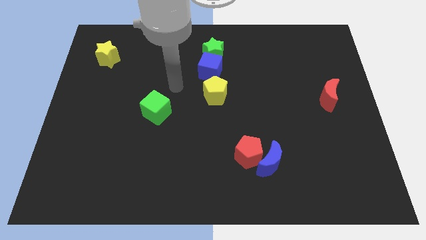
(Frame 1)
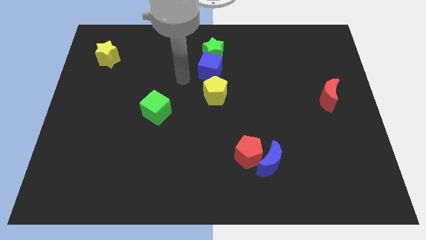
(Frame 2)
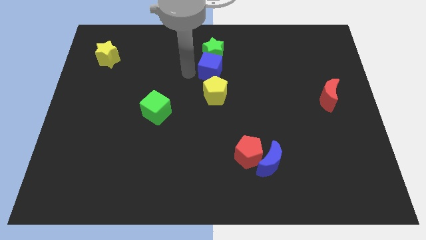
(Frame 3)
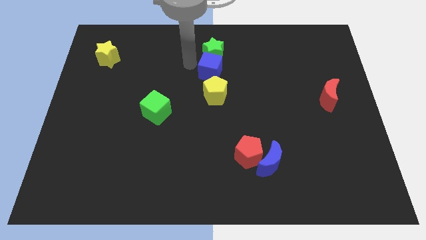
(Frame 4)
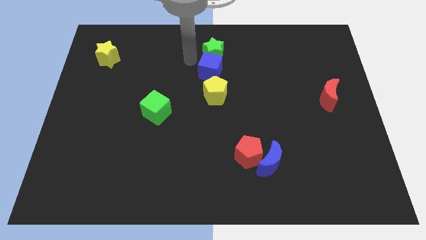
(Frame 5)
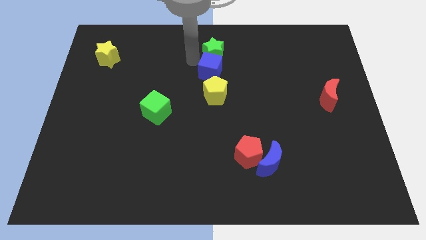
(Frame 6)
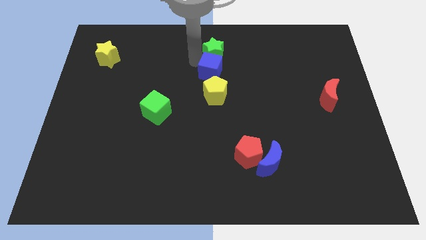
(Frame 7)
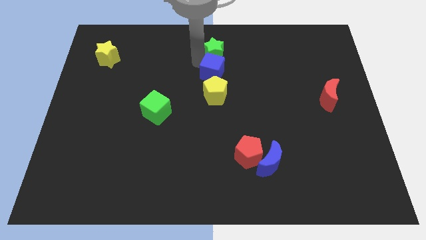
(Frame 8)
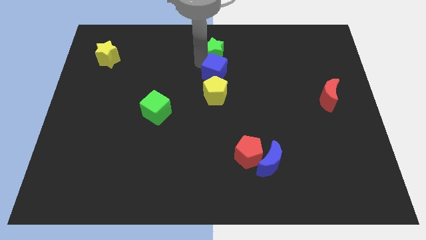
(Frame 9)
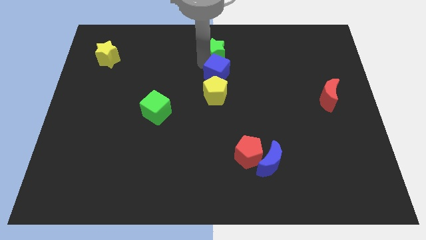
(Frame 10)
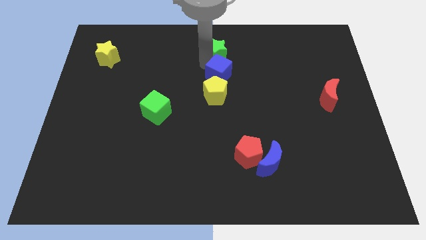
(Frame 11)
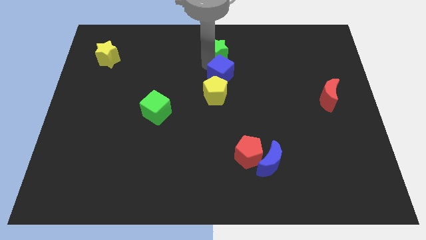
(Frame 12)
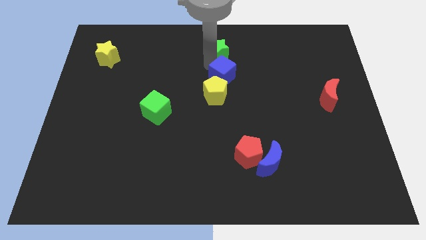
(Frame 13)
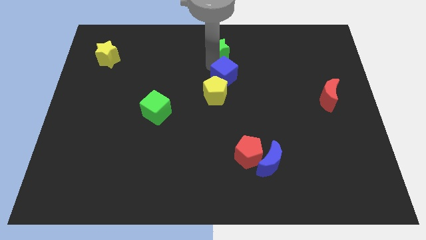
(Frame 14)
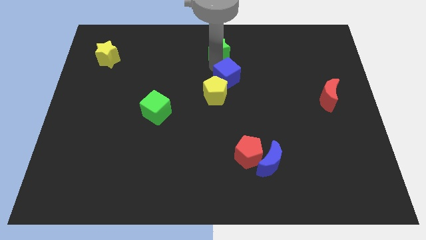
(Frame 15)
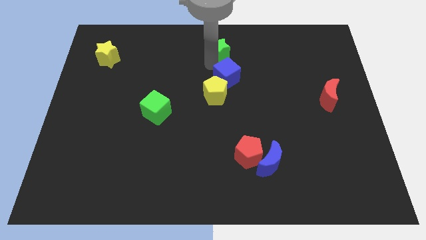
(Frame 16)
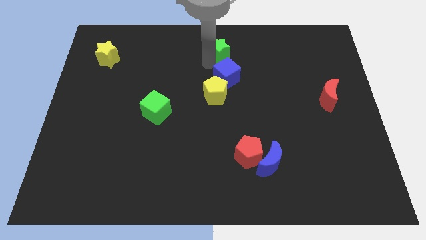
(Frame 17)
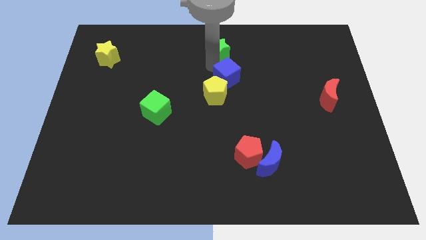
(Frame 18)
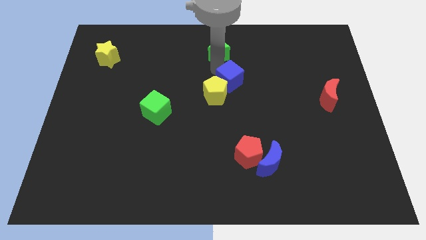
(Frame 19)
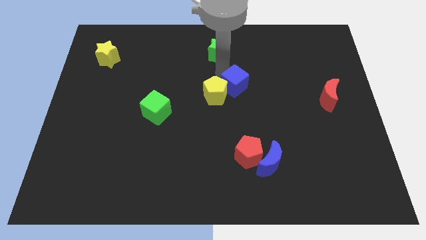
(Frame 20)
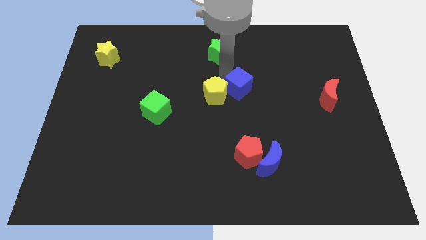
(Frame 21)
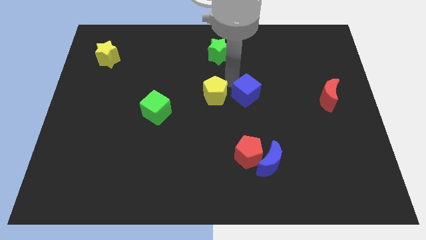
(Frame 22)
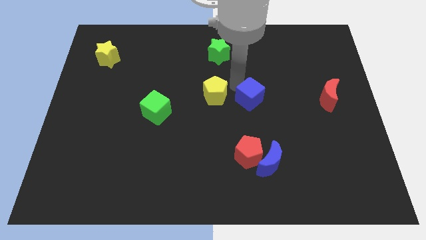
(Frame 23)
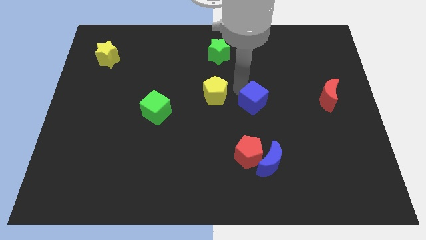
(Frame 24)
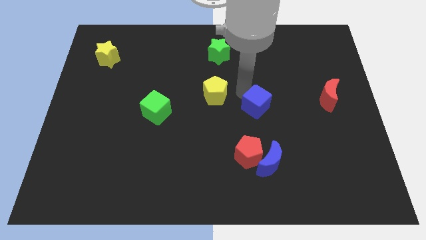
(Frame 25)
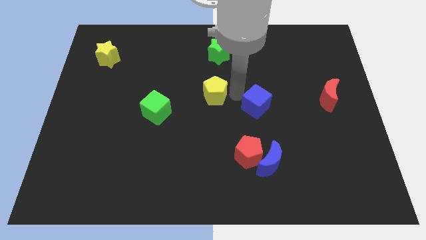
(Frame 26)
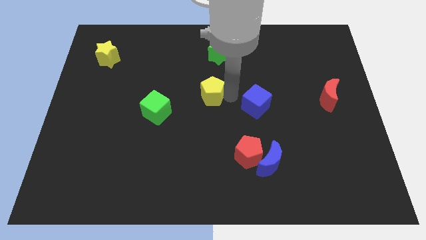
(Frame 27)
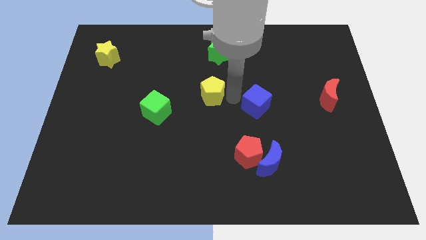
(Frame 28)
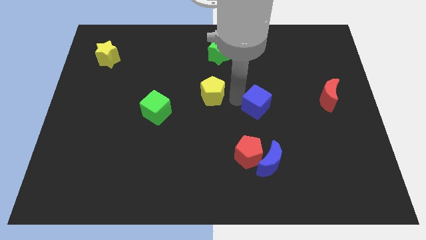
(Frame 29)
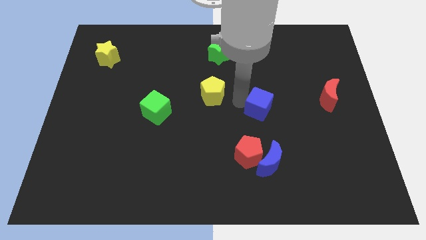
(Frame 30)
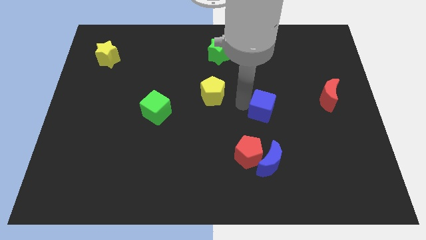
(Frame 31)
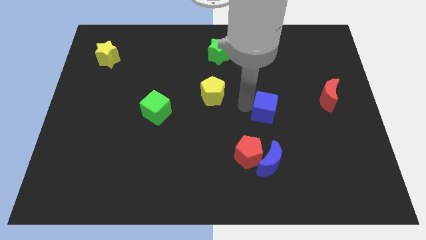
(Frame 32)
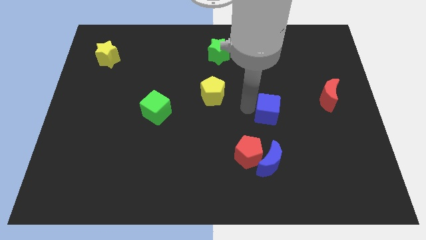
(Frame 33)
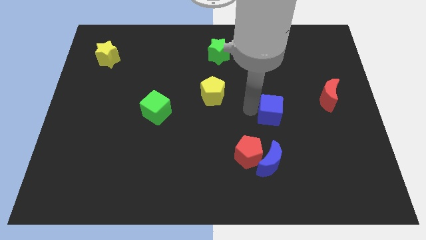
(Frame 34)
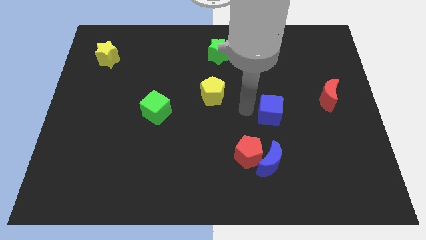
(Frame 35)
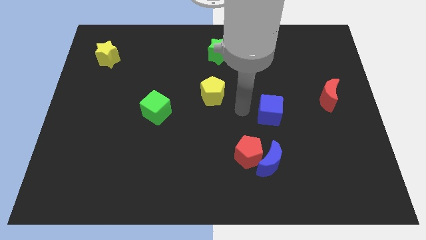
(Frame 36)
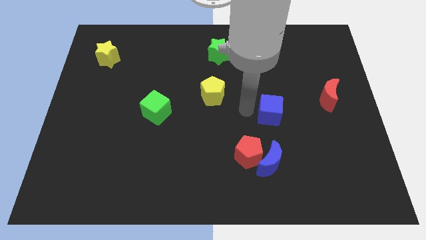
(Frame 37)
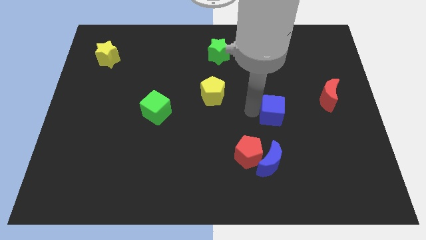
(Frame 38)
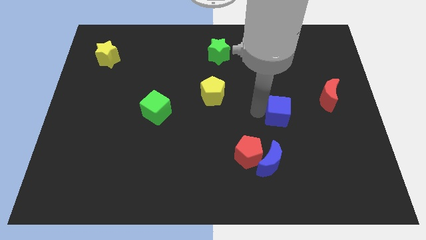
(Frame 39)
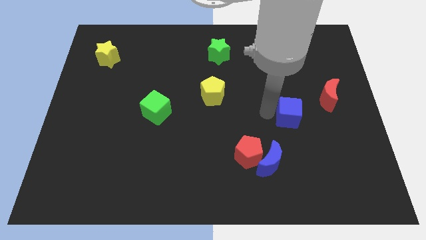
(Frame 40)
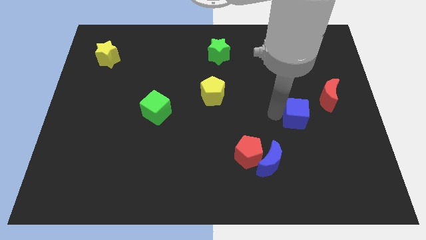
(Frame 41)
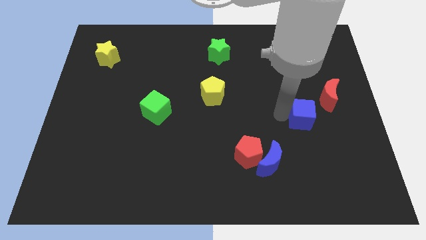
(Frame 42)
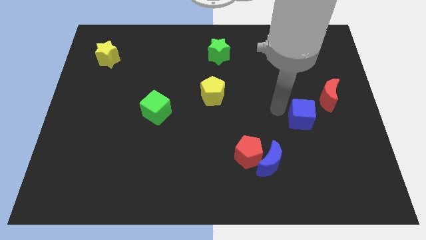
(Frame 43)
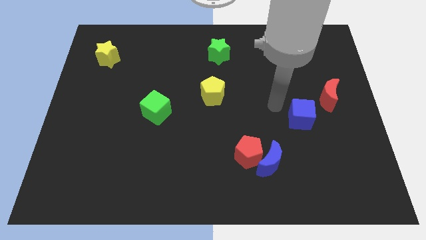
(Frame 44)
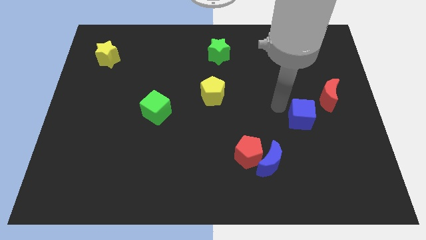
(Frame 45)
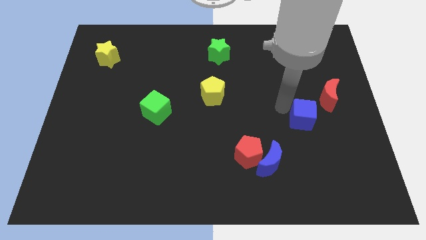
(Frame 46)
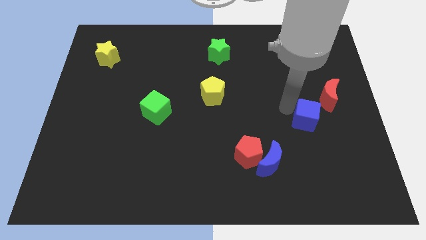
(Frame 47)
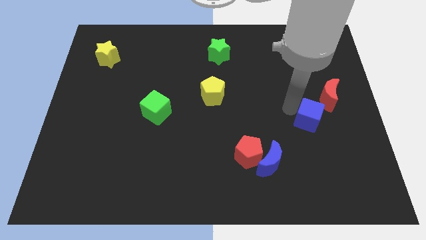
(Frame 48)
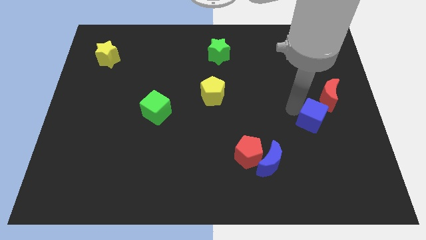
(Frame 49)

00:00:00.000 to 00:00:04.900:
move the blue cube to the bottom side of the red moon
